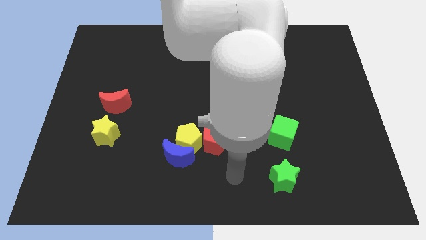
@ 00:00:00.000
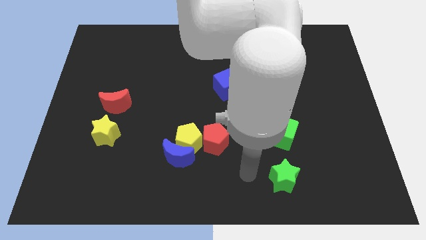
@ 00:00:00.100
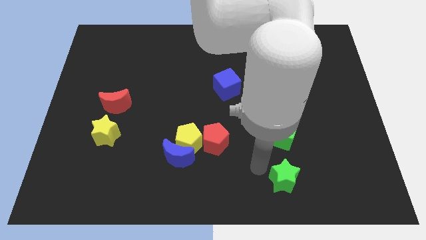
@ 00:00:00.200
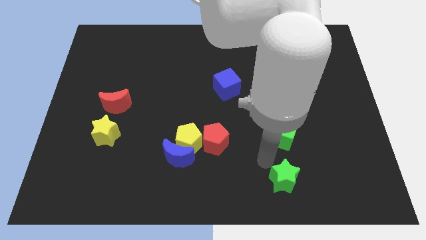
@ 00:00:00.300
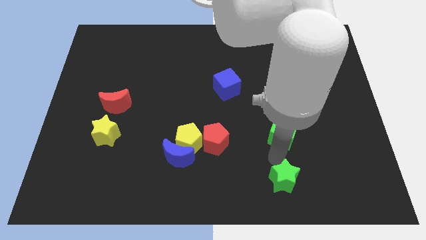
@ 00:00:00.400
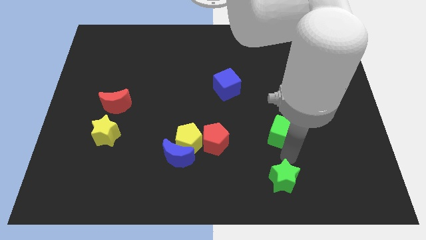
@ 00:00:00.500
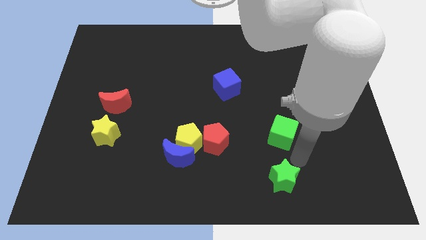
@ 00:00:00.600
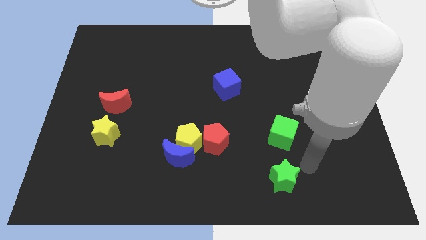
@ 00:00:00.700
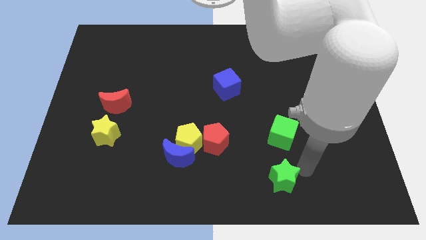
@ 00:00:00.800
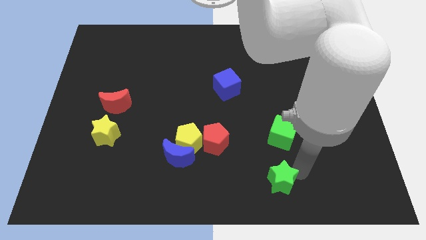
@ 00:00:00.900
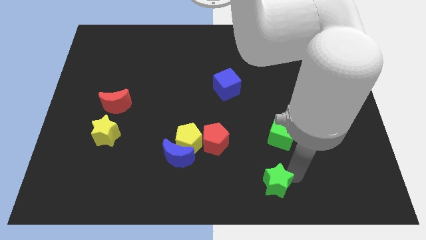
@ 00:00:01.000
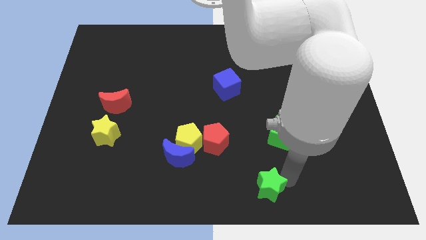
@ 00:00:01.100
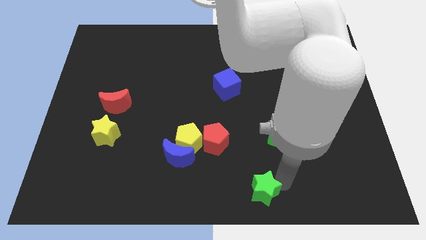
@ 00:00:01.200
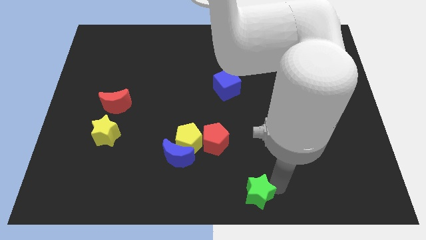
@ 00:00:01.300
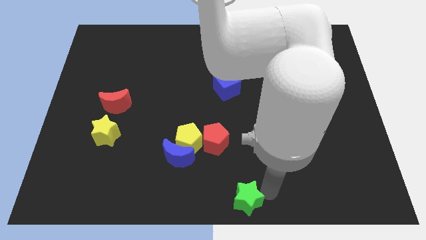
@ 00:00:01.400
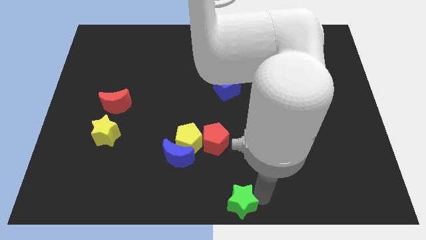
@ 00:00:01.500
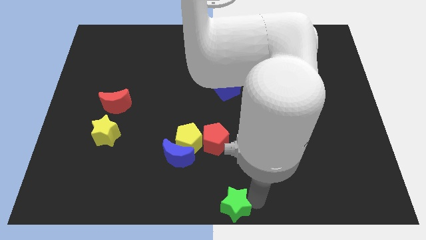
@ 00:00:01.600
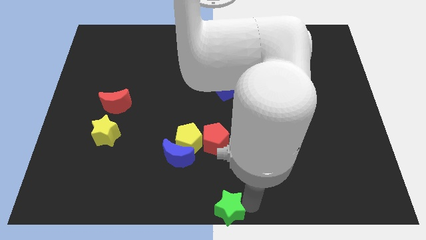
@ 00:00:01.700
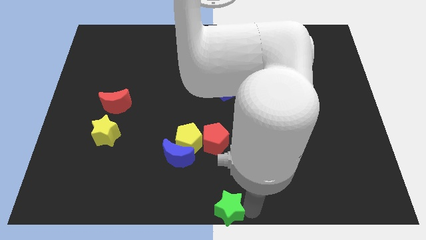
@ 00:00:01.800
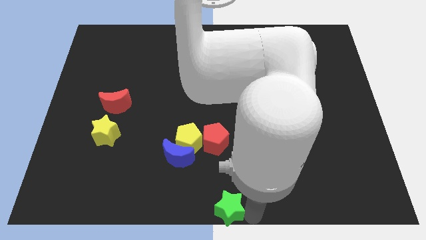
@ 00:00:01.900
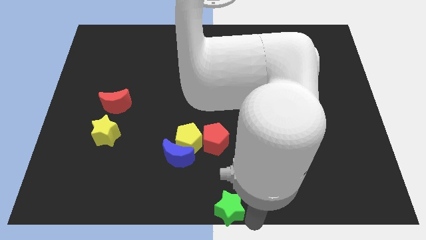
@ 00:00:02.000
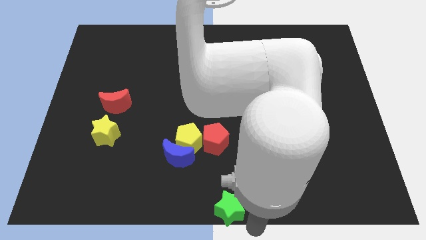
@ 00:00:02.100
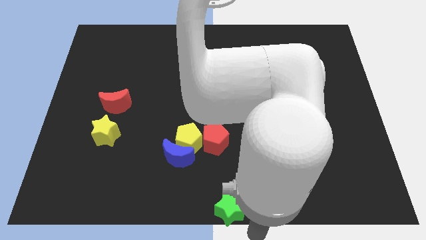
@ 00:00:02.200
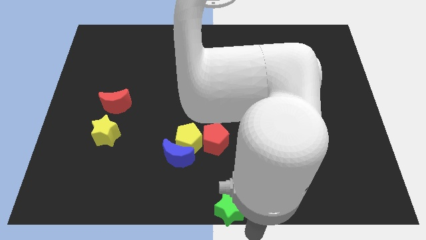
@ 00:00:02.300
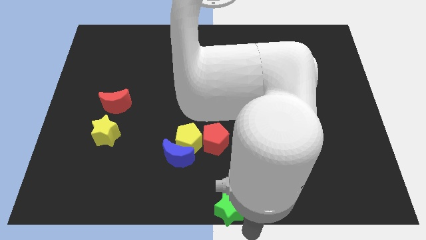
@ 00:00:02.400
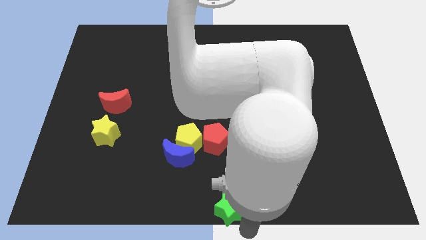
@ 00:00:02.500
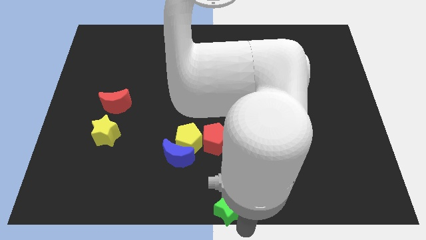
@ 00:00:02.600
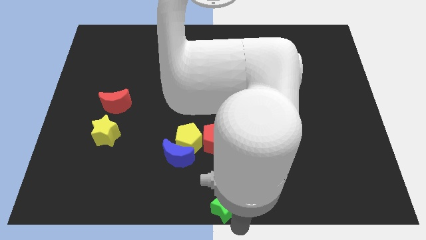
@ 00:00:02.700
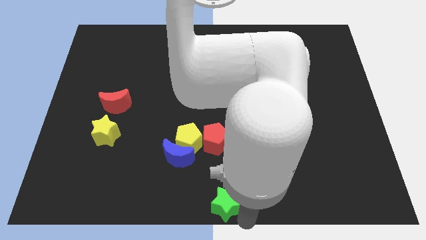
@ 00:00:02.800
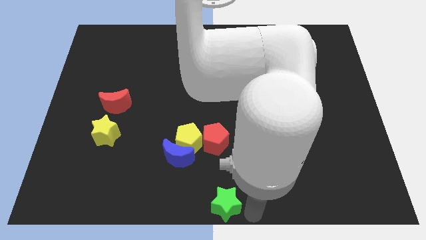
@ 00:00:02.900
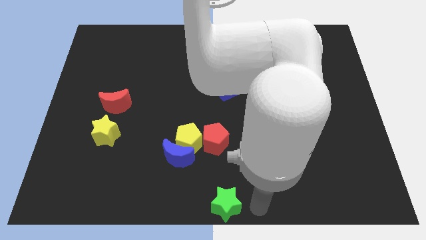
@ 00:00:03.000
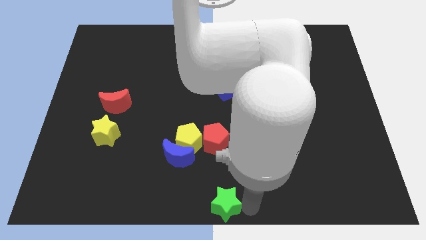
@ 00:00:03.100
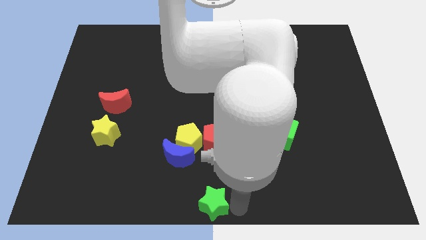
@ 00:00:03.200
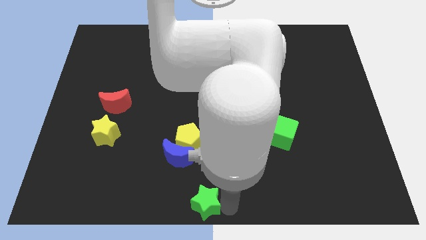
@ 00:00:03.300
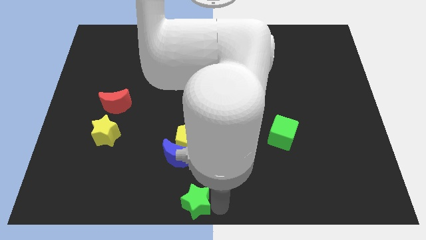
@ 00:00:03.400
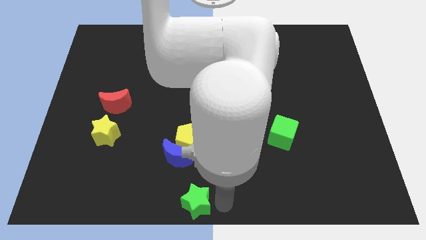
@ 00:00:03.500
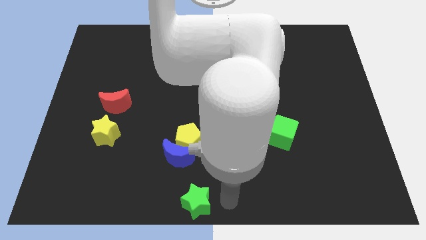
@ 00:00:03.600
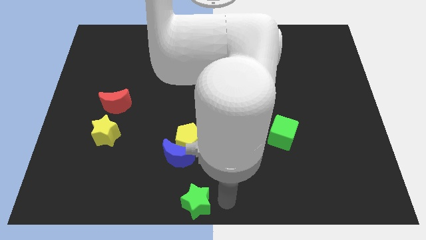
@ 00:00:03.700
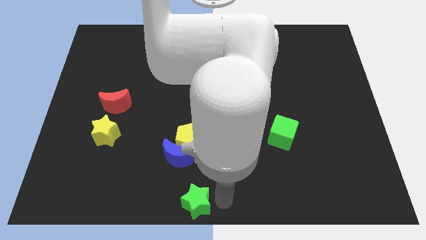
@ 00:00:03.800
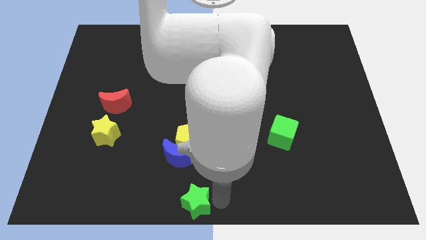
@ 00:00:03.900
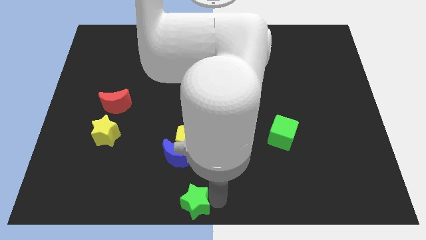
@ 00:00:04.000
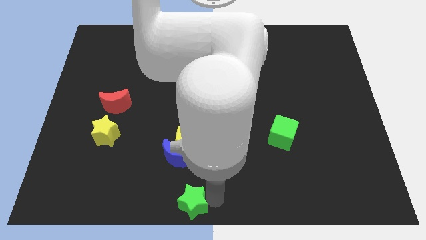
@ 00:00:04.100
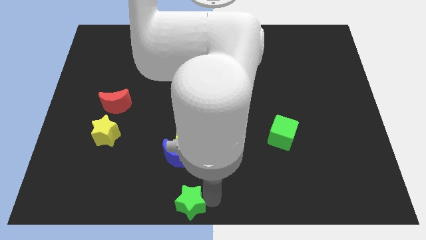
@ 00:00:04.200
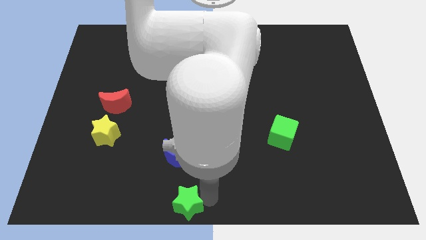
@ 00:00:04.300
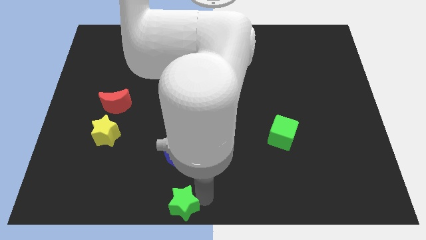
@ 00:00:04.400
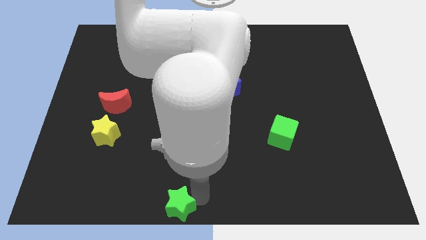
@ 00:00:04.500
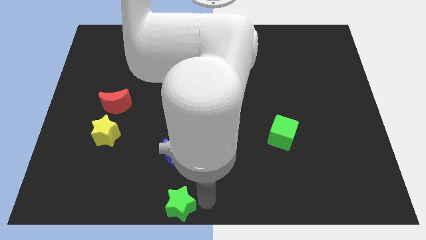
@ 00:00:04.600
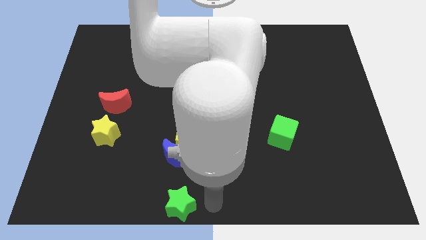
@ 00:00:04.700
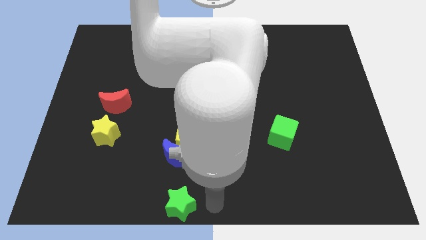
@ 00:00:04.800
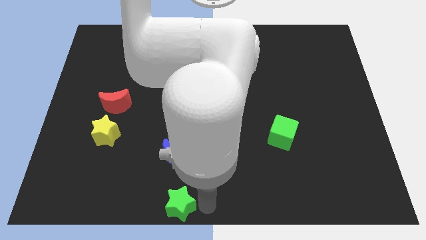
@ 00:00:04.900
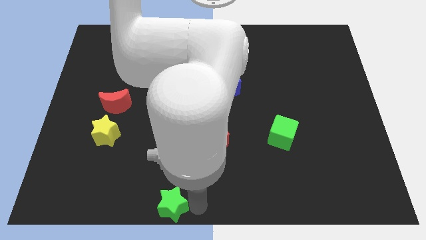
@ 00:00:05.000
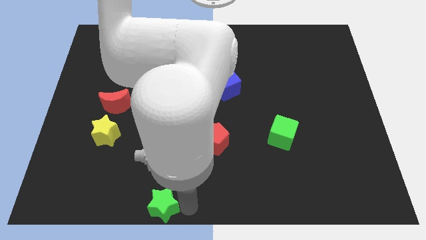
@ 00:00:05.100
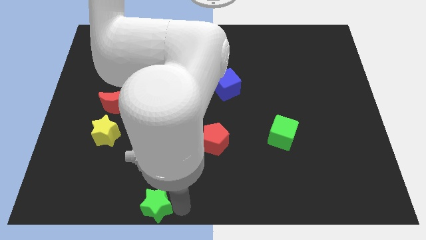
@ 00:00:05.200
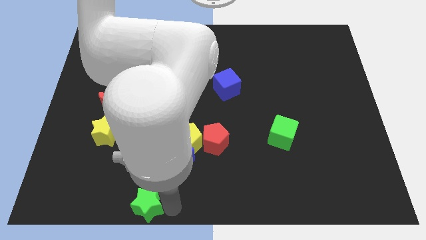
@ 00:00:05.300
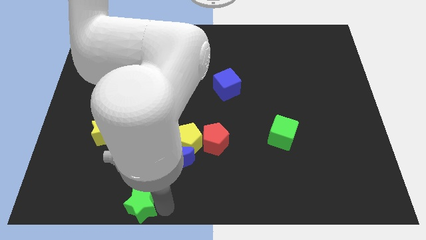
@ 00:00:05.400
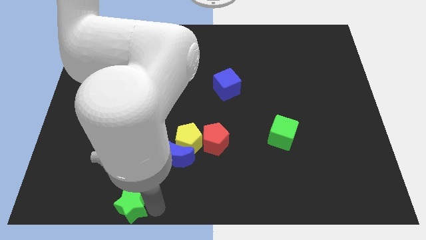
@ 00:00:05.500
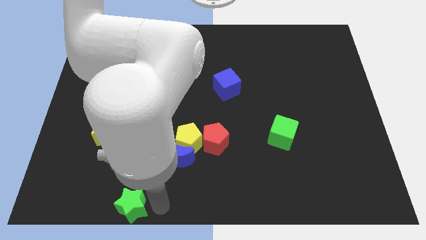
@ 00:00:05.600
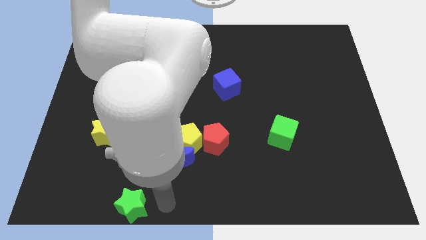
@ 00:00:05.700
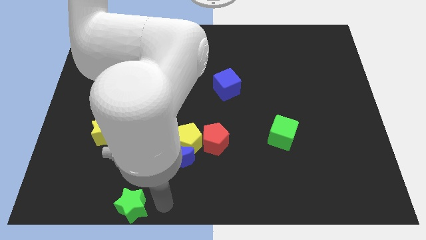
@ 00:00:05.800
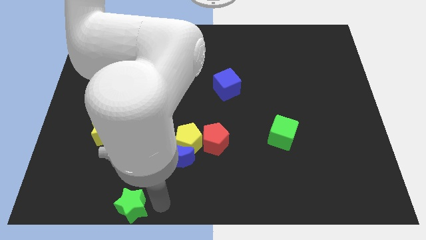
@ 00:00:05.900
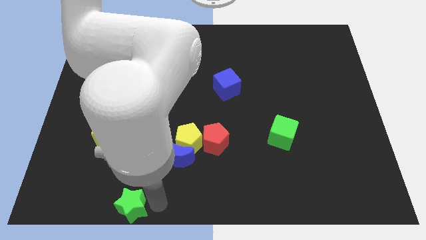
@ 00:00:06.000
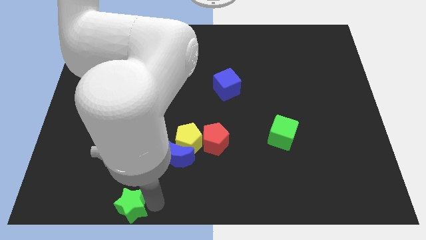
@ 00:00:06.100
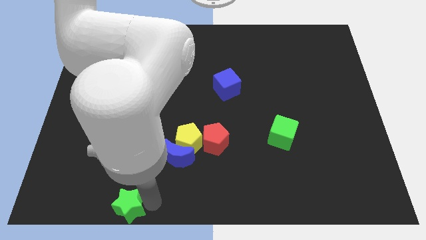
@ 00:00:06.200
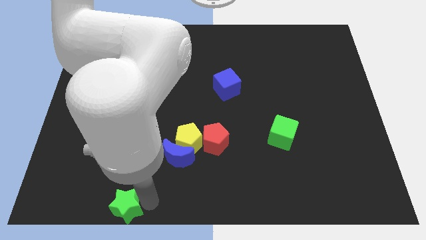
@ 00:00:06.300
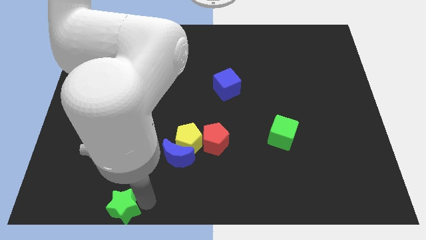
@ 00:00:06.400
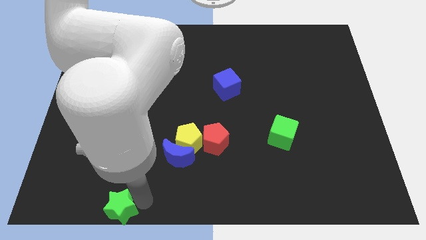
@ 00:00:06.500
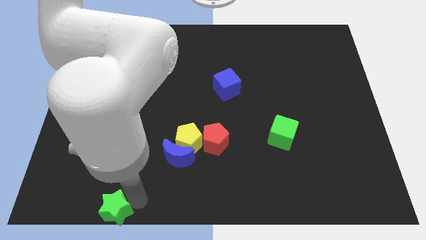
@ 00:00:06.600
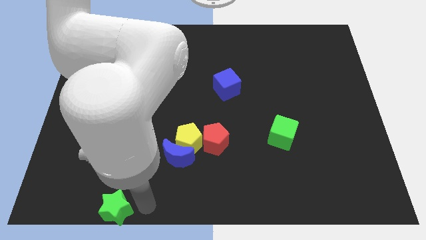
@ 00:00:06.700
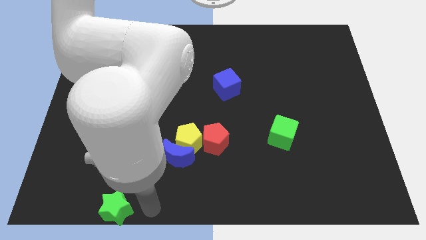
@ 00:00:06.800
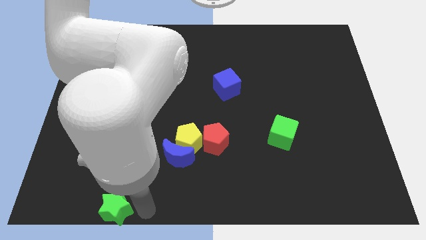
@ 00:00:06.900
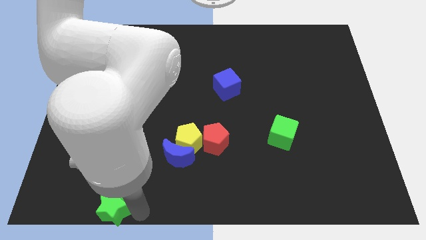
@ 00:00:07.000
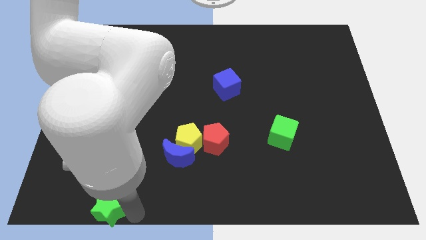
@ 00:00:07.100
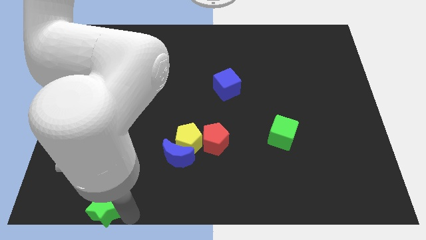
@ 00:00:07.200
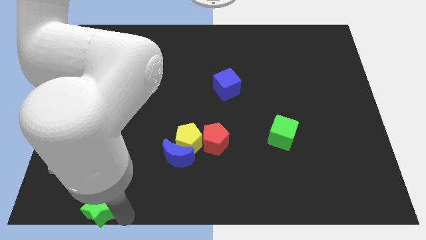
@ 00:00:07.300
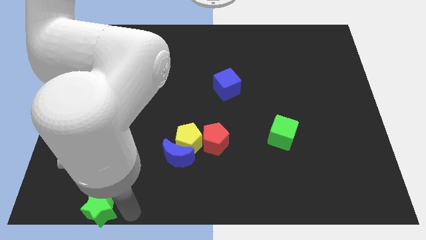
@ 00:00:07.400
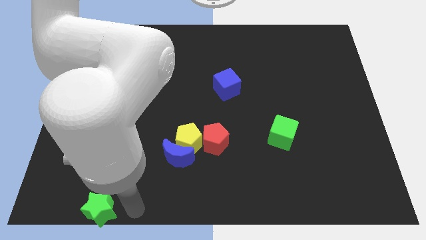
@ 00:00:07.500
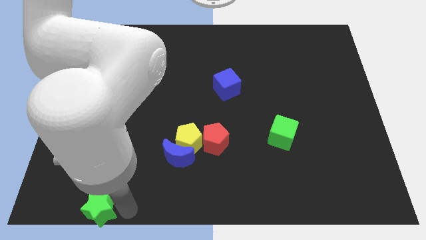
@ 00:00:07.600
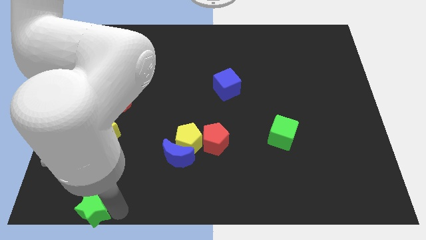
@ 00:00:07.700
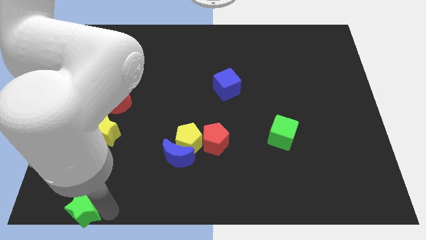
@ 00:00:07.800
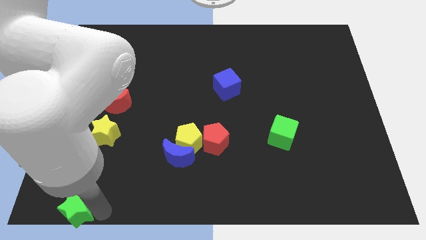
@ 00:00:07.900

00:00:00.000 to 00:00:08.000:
put the green star to the bottom left of the board
